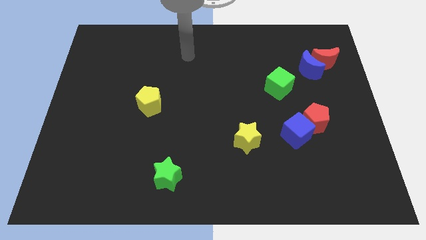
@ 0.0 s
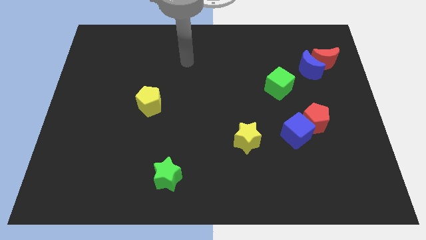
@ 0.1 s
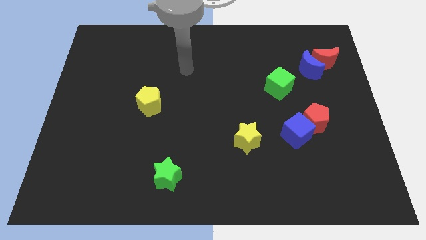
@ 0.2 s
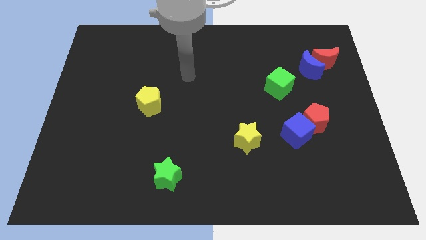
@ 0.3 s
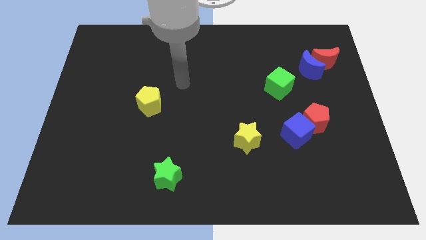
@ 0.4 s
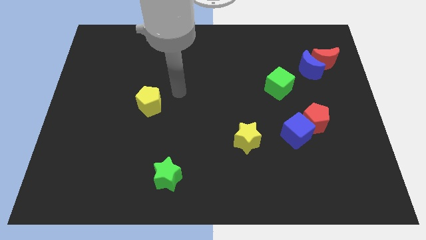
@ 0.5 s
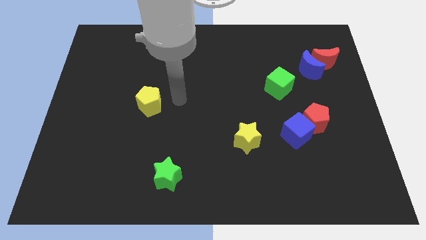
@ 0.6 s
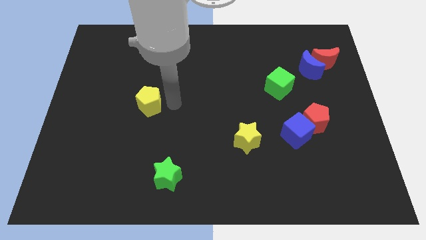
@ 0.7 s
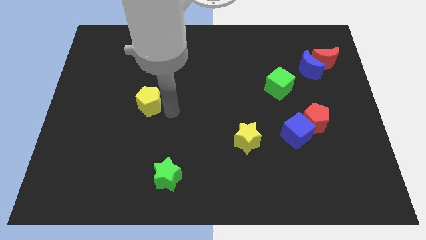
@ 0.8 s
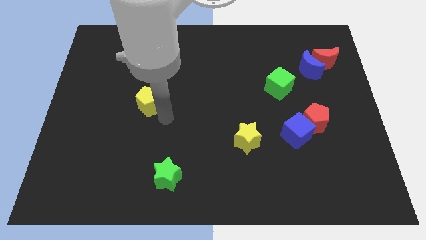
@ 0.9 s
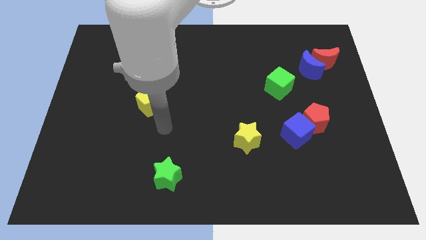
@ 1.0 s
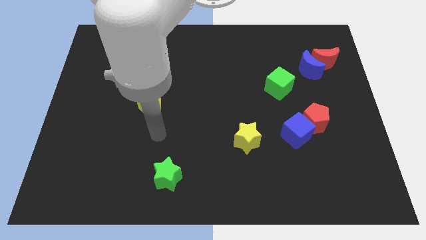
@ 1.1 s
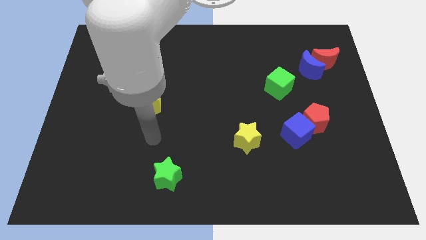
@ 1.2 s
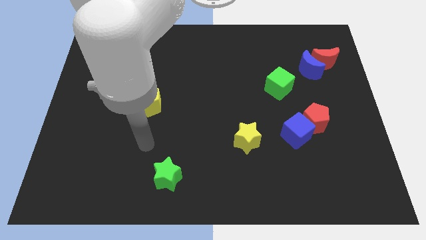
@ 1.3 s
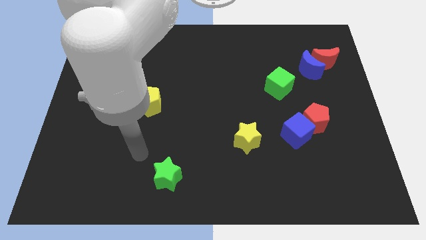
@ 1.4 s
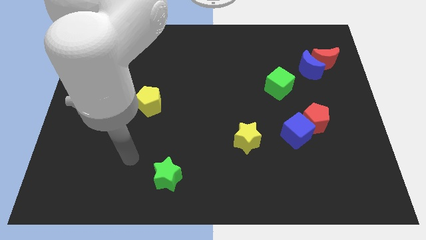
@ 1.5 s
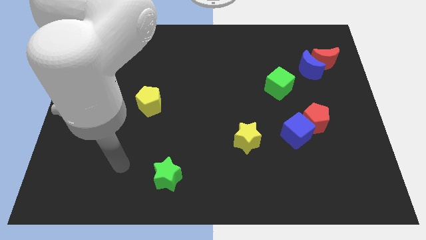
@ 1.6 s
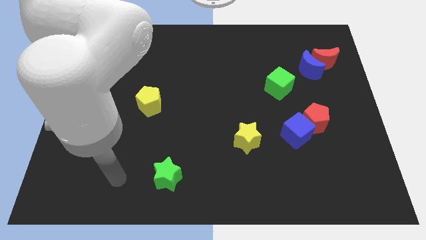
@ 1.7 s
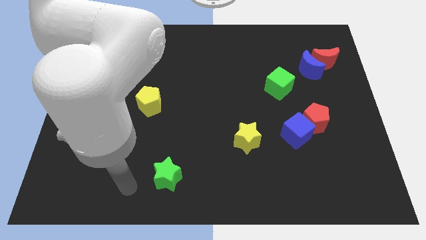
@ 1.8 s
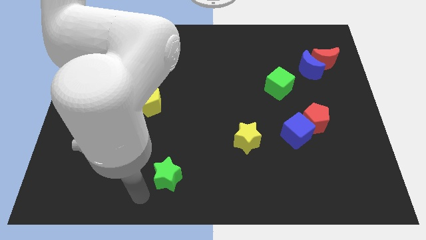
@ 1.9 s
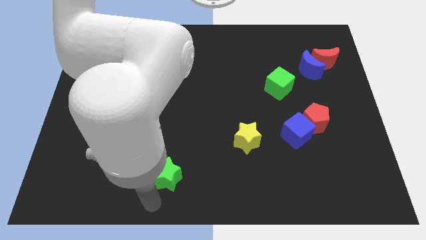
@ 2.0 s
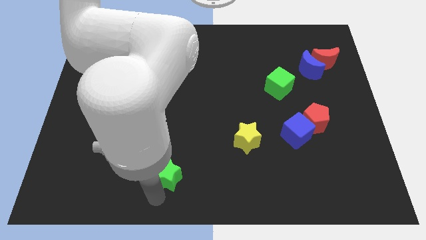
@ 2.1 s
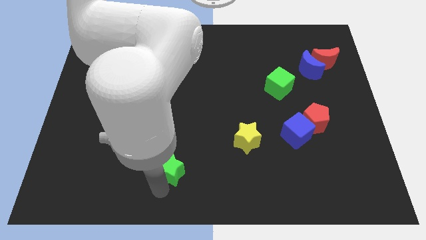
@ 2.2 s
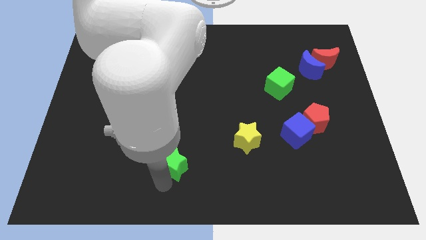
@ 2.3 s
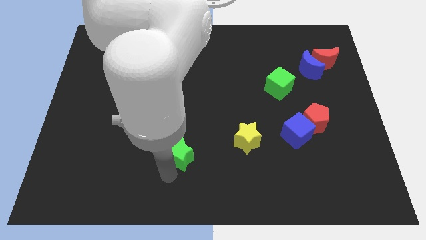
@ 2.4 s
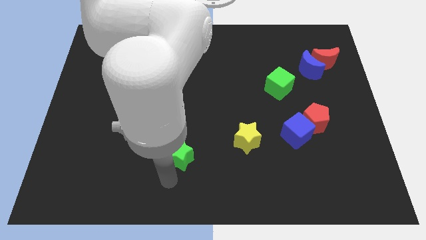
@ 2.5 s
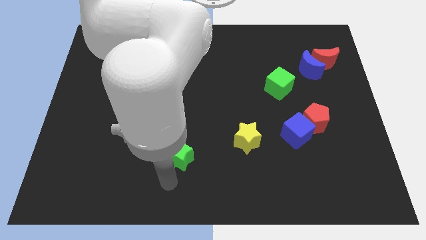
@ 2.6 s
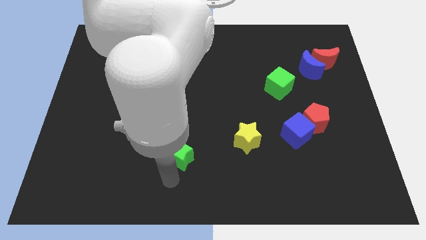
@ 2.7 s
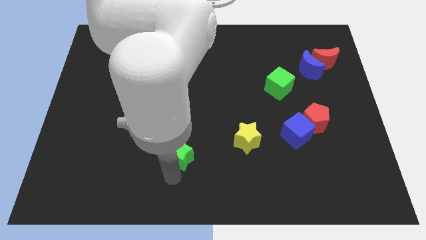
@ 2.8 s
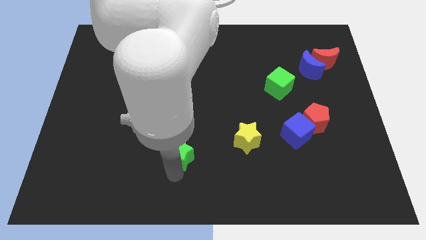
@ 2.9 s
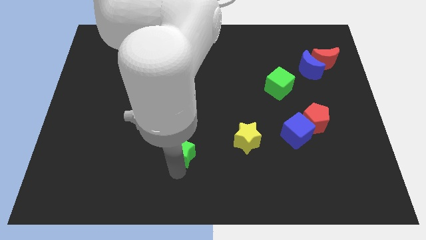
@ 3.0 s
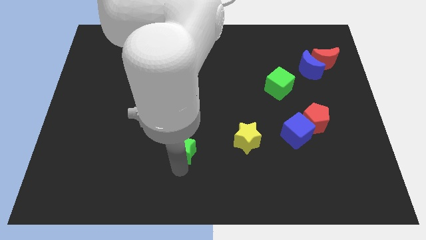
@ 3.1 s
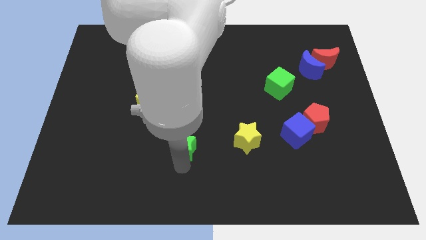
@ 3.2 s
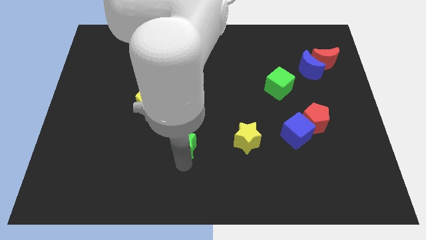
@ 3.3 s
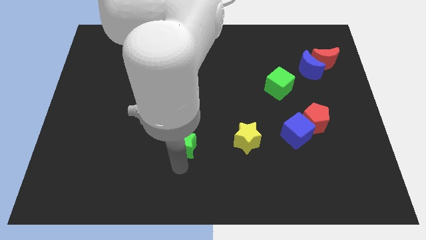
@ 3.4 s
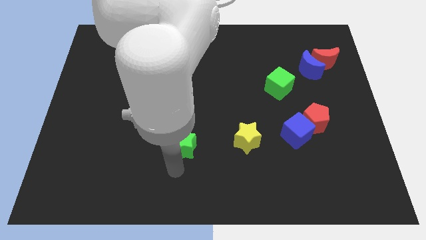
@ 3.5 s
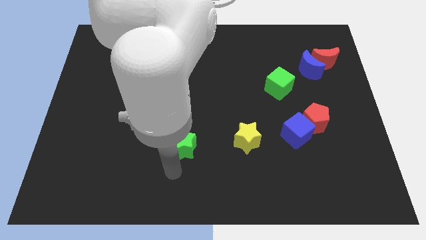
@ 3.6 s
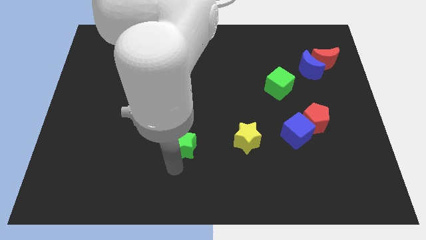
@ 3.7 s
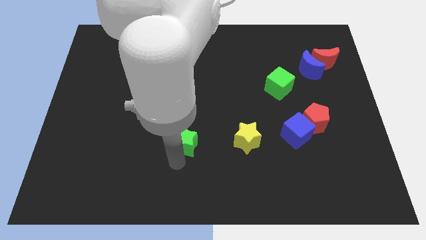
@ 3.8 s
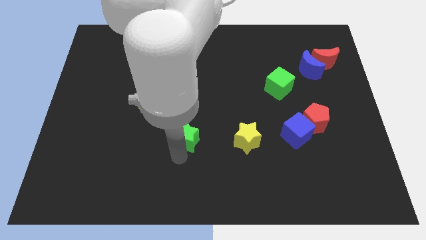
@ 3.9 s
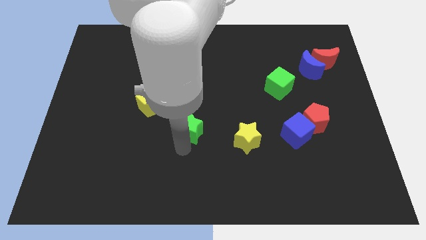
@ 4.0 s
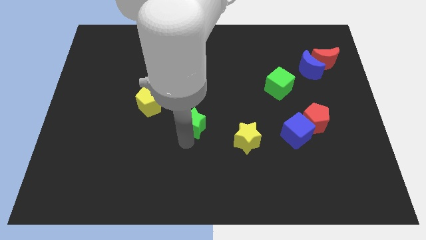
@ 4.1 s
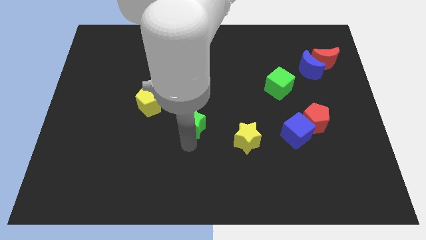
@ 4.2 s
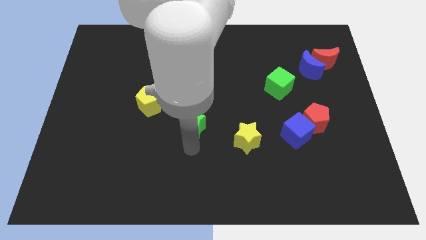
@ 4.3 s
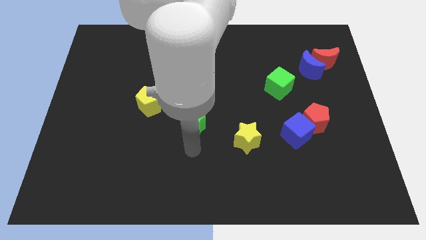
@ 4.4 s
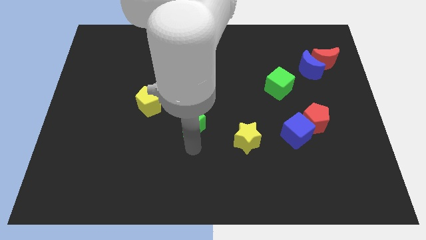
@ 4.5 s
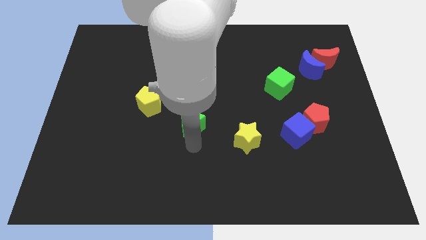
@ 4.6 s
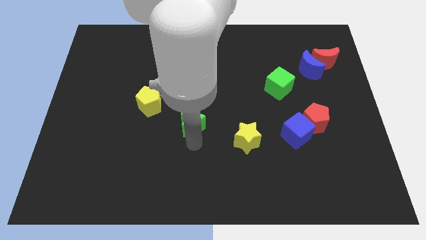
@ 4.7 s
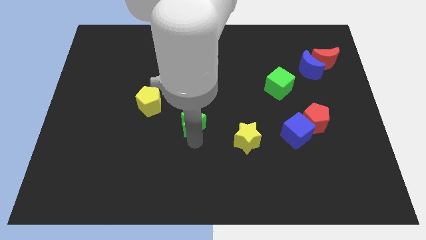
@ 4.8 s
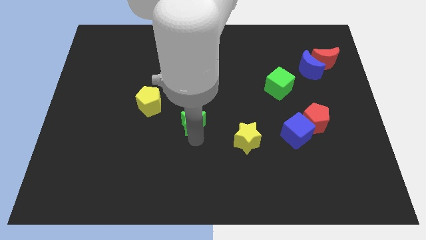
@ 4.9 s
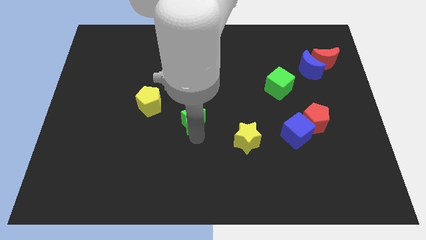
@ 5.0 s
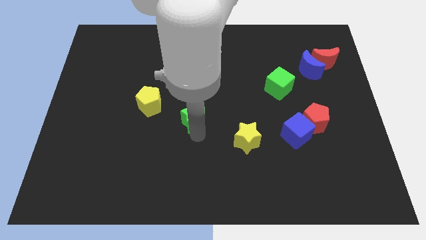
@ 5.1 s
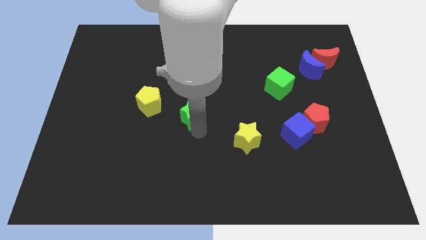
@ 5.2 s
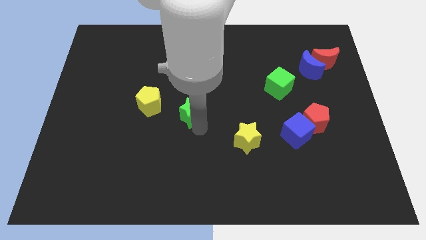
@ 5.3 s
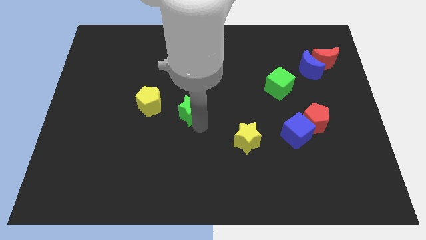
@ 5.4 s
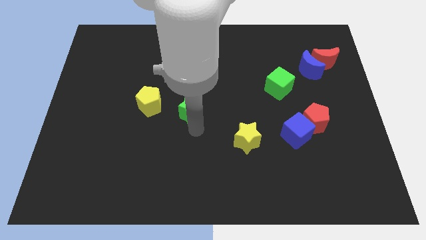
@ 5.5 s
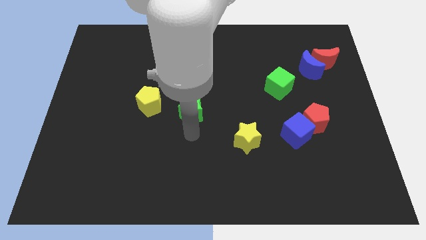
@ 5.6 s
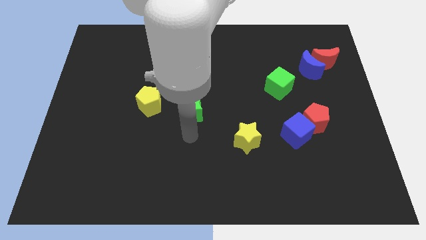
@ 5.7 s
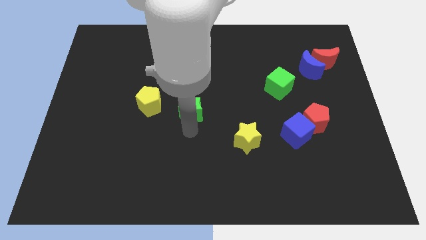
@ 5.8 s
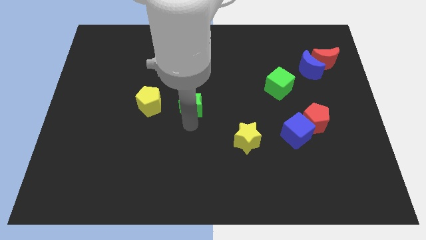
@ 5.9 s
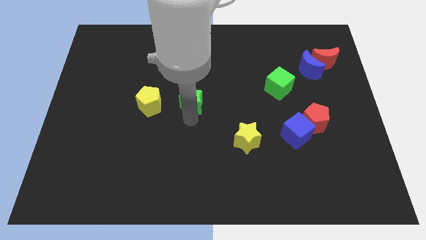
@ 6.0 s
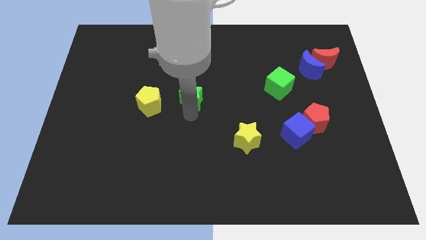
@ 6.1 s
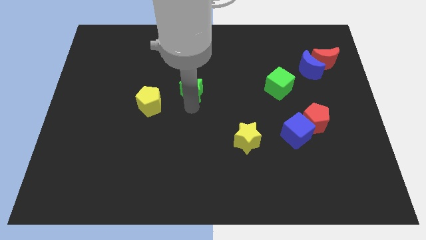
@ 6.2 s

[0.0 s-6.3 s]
move the green star up

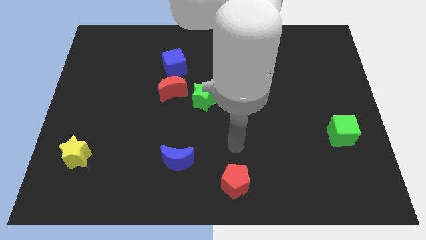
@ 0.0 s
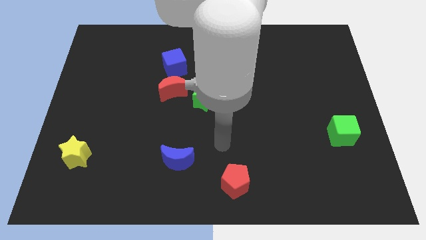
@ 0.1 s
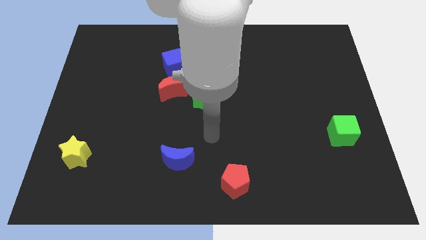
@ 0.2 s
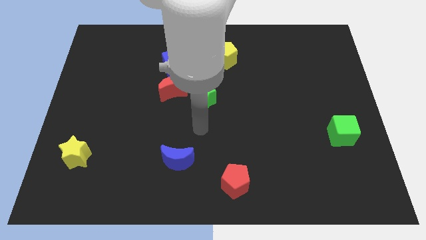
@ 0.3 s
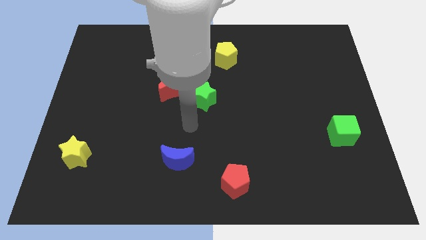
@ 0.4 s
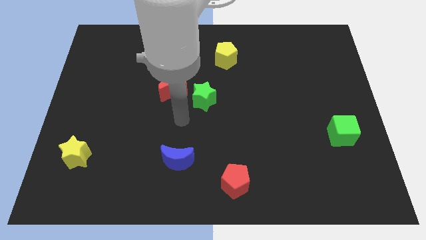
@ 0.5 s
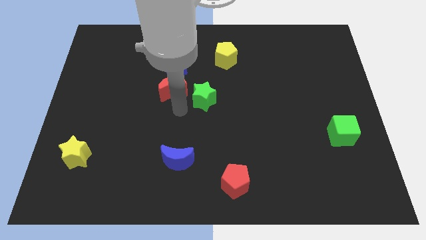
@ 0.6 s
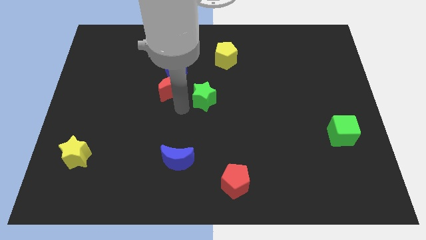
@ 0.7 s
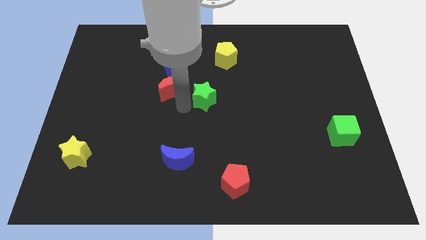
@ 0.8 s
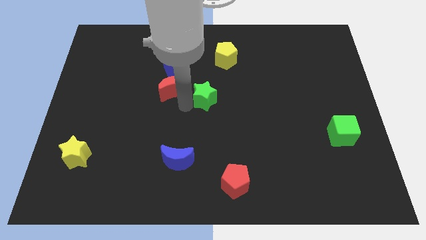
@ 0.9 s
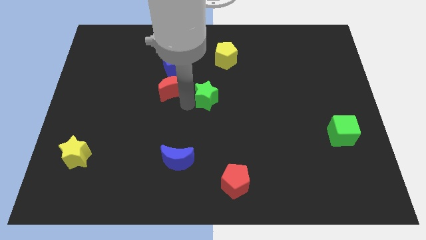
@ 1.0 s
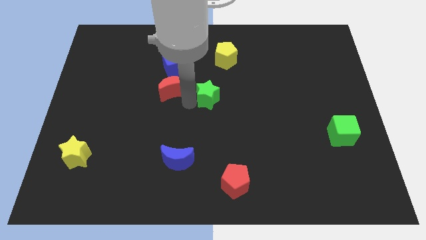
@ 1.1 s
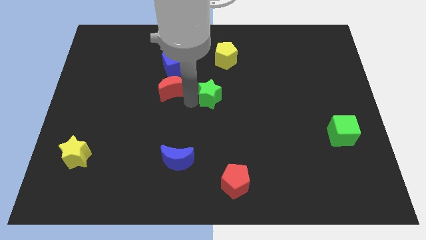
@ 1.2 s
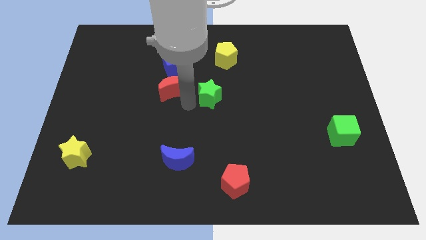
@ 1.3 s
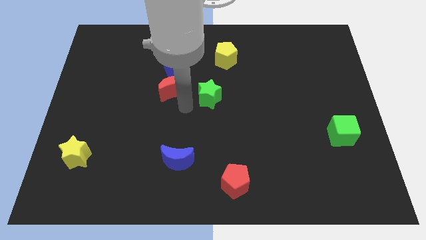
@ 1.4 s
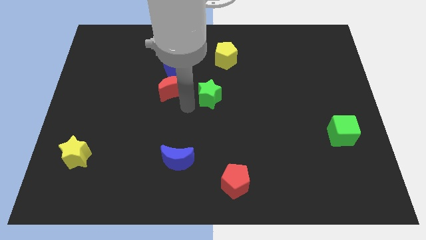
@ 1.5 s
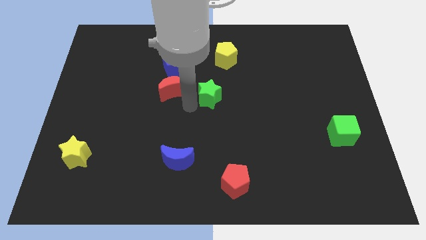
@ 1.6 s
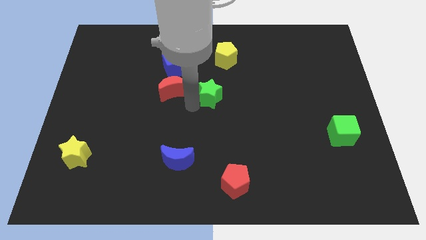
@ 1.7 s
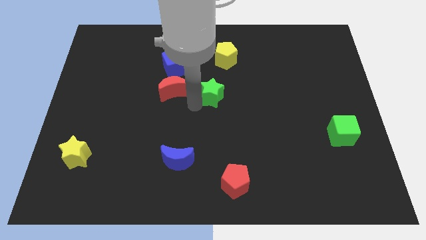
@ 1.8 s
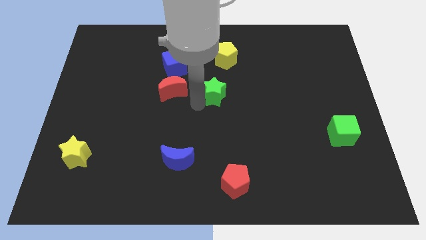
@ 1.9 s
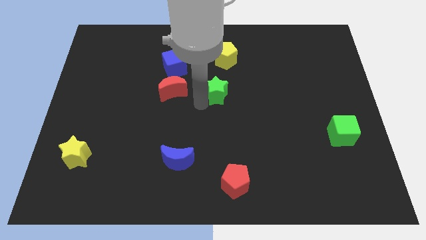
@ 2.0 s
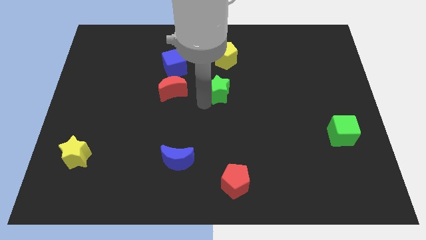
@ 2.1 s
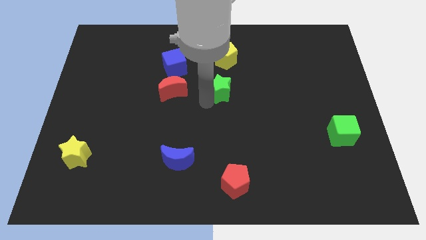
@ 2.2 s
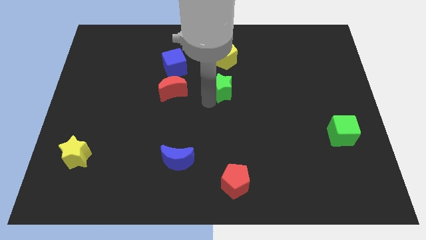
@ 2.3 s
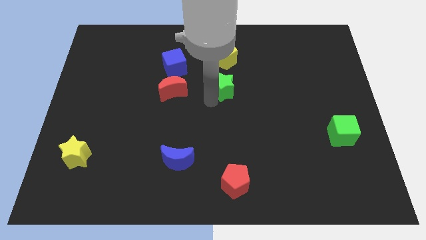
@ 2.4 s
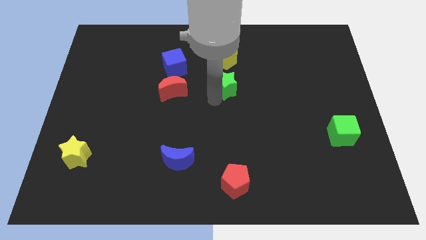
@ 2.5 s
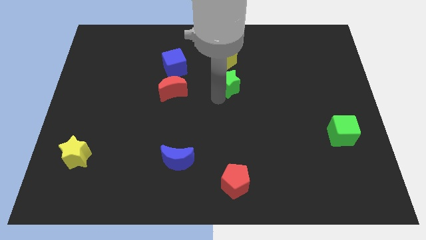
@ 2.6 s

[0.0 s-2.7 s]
slightly move the green star up and then right
